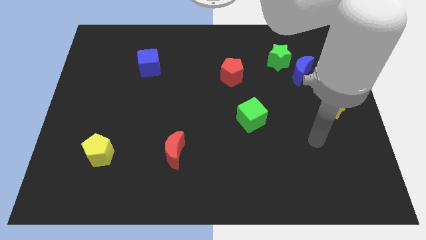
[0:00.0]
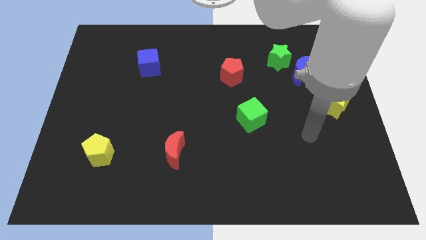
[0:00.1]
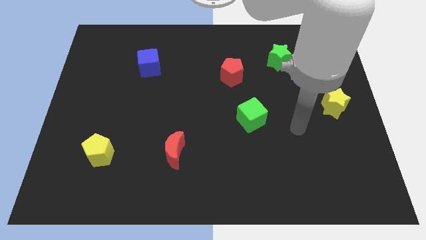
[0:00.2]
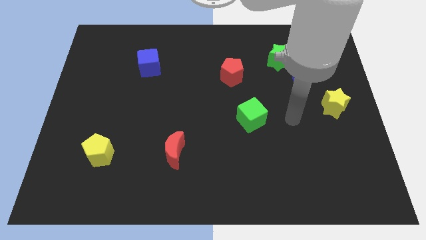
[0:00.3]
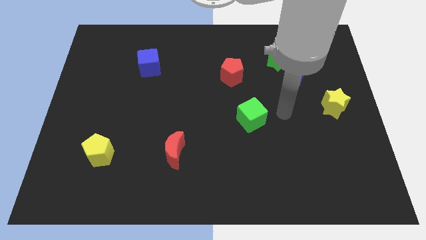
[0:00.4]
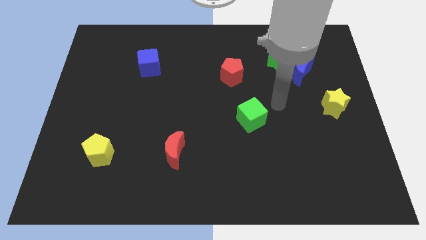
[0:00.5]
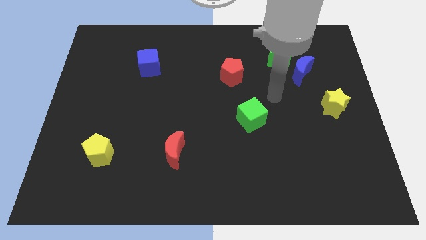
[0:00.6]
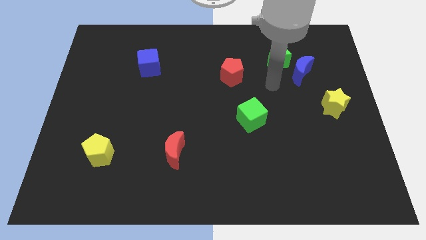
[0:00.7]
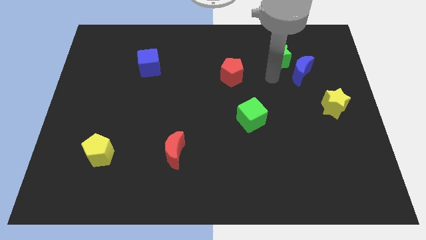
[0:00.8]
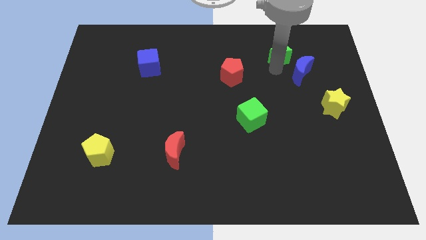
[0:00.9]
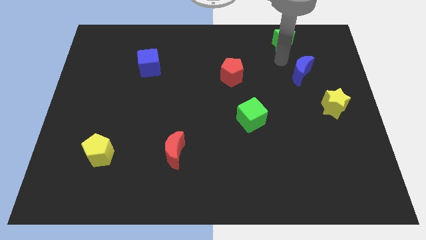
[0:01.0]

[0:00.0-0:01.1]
separate the blue moon from the green star

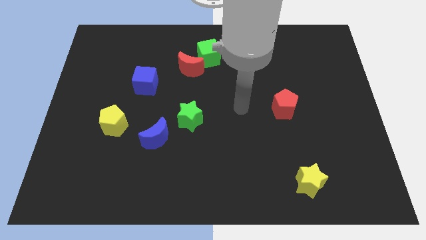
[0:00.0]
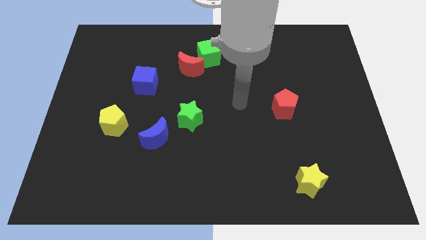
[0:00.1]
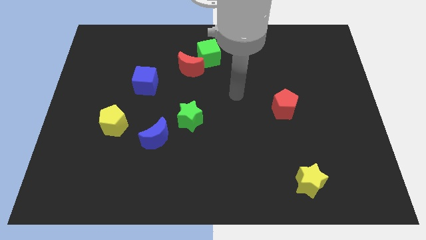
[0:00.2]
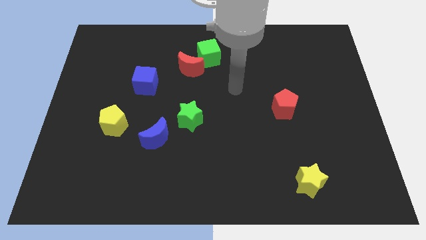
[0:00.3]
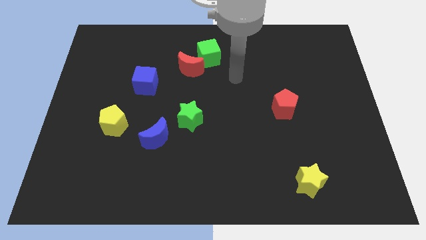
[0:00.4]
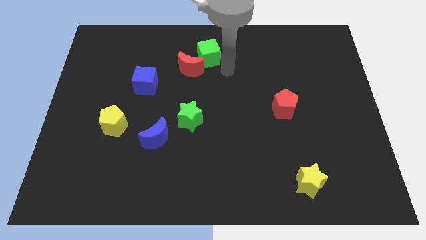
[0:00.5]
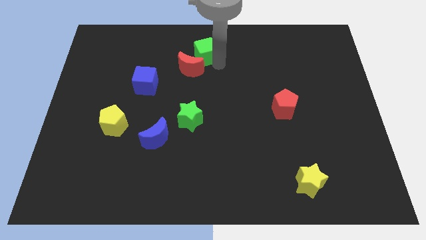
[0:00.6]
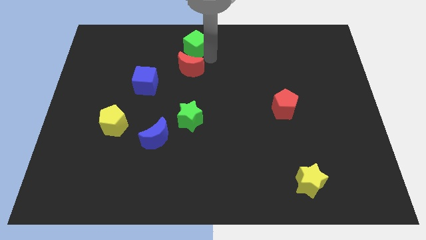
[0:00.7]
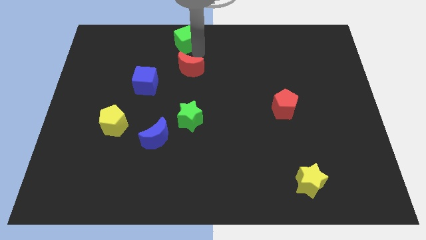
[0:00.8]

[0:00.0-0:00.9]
move the red moon away from the green cube

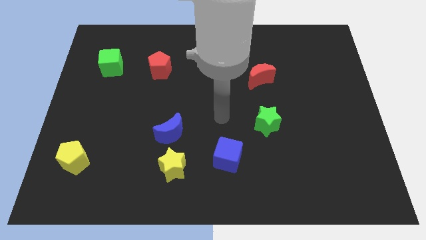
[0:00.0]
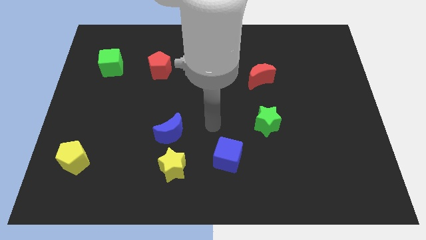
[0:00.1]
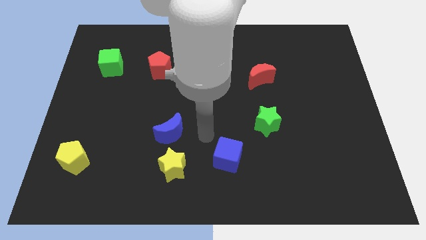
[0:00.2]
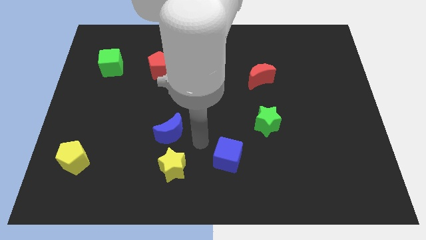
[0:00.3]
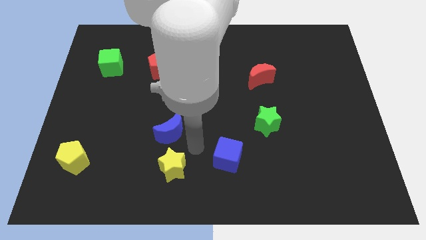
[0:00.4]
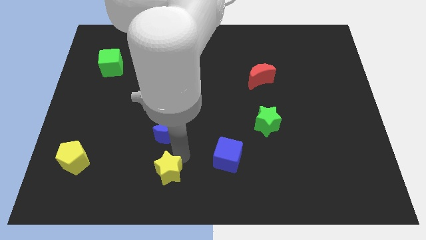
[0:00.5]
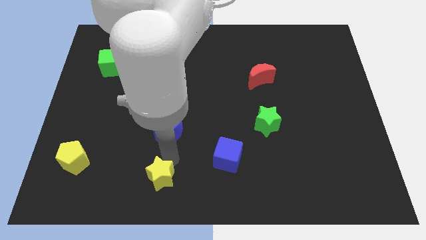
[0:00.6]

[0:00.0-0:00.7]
separate the blue moon from the yellow star

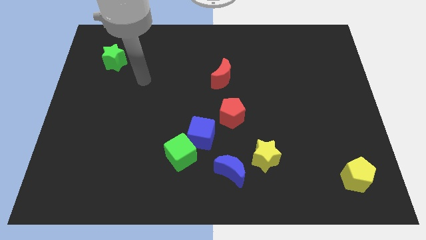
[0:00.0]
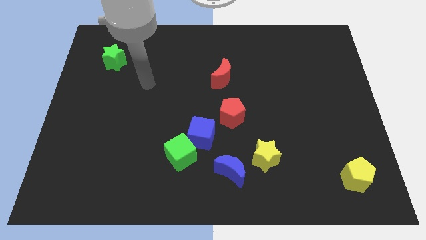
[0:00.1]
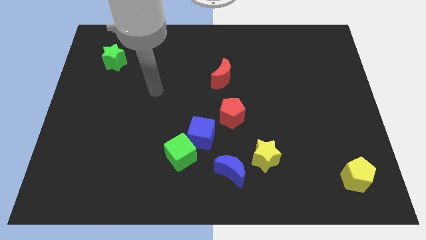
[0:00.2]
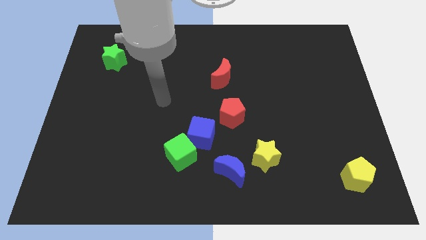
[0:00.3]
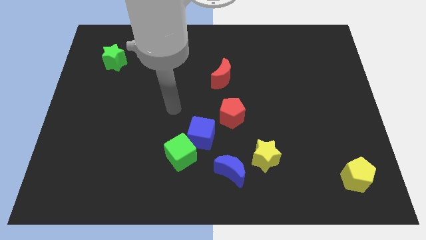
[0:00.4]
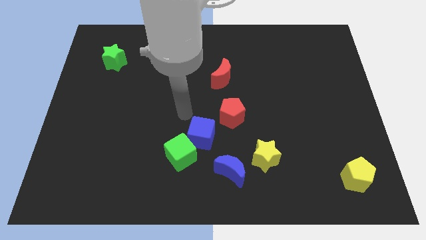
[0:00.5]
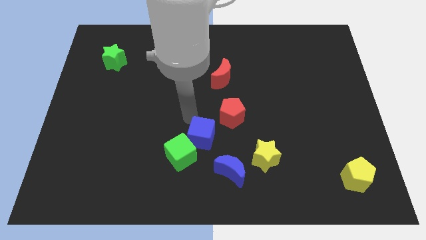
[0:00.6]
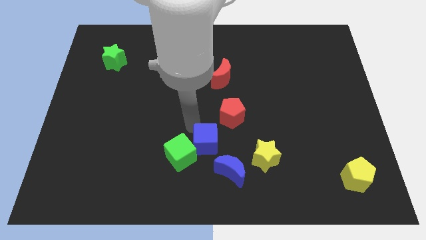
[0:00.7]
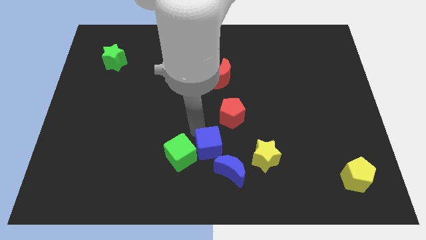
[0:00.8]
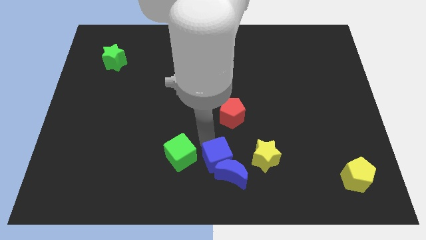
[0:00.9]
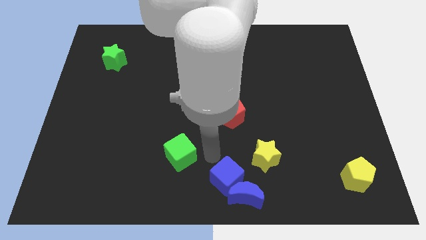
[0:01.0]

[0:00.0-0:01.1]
separate the green cube from the blue cube

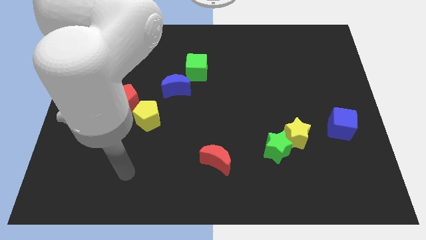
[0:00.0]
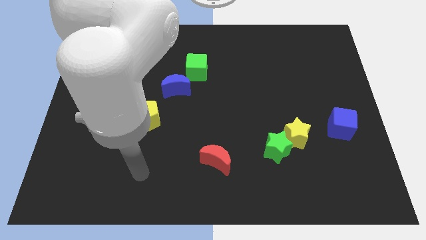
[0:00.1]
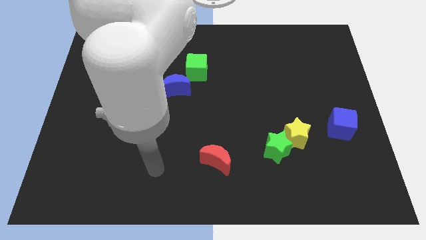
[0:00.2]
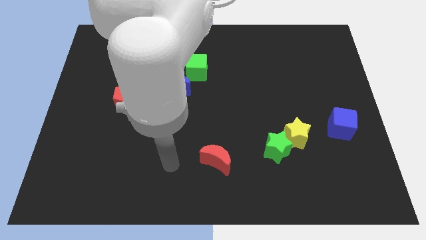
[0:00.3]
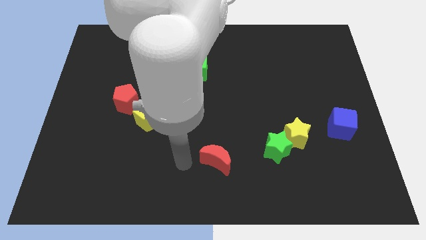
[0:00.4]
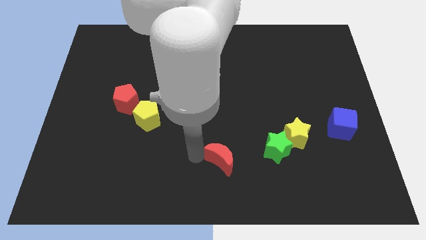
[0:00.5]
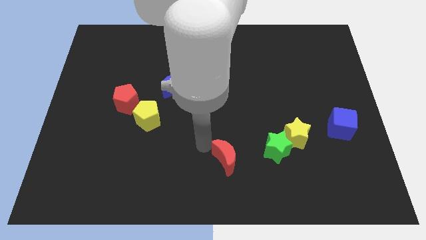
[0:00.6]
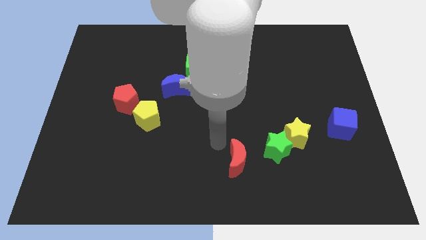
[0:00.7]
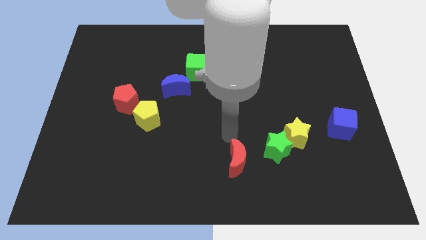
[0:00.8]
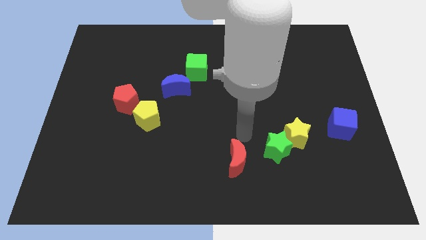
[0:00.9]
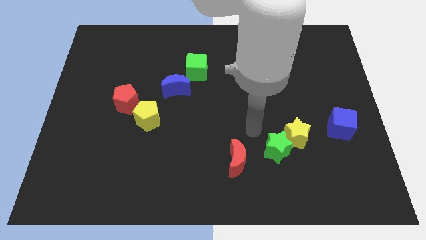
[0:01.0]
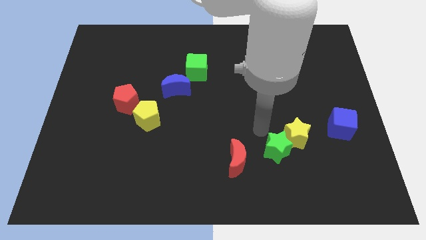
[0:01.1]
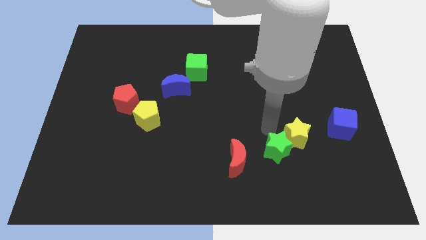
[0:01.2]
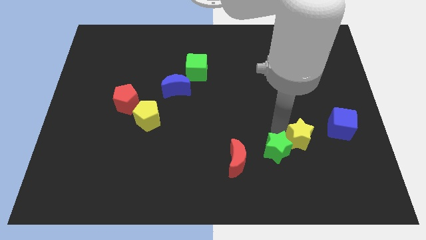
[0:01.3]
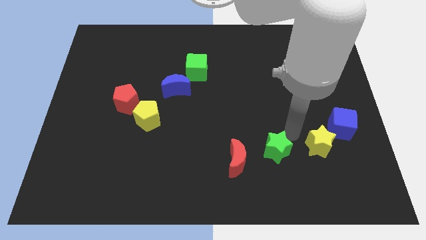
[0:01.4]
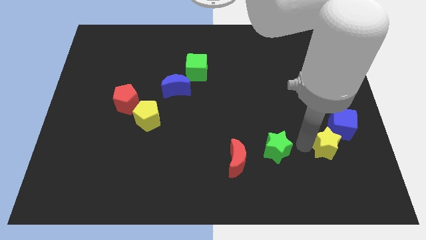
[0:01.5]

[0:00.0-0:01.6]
move the green star away from the yellow star

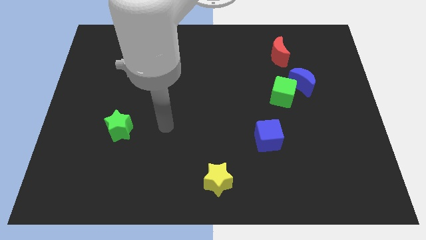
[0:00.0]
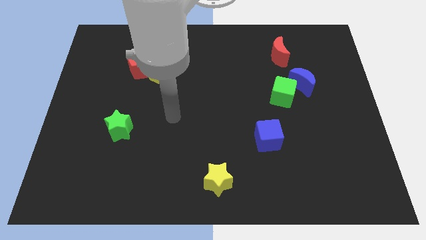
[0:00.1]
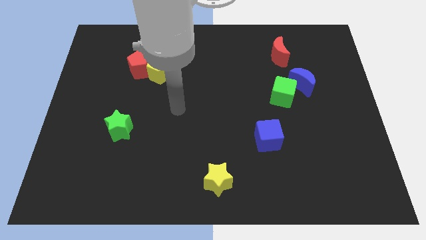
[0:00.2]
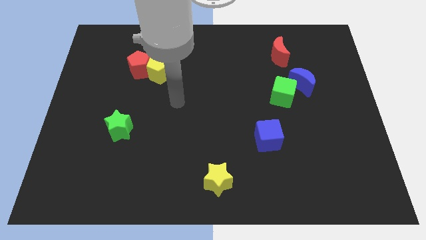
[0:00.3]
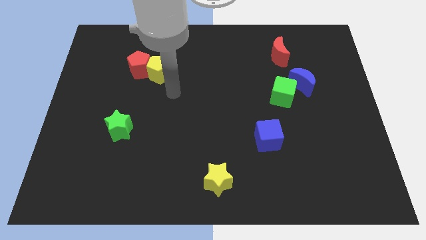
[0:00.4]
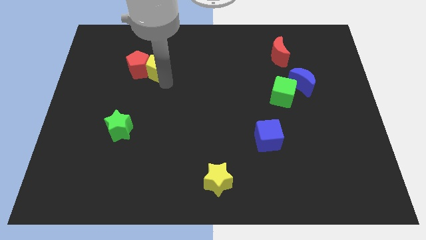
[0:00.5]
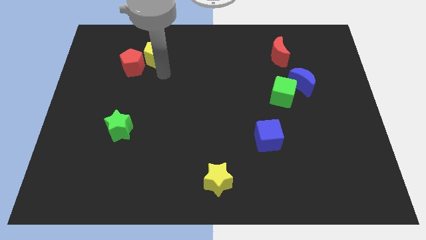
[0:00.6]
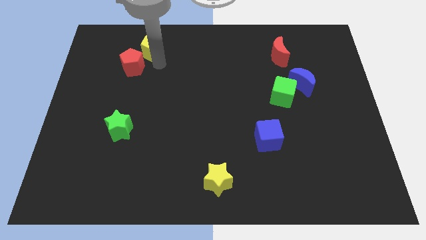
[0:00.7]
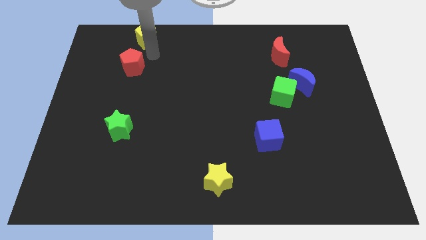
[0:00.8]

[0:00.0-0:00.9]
move the red pentagon away from the yellow pentagon

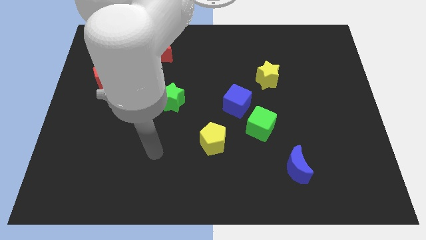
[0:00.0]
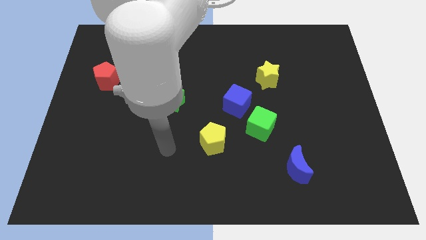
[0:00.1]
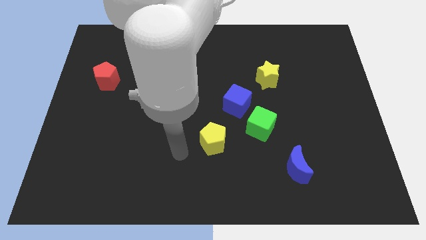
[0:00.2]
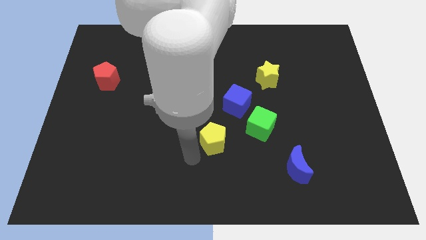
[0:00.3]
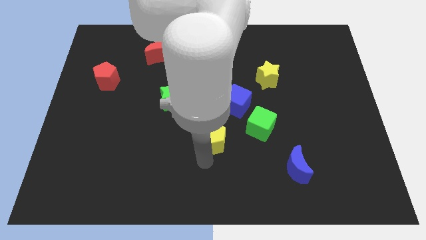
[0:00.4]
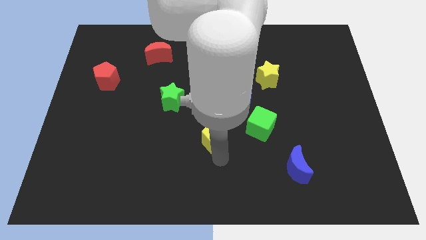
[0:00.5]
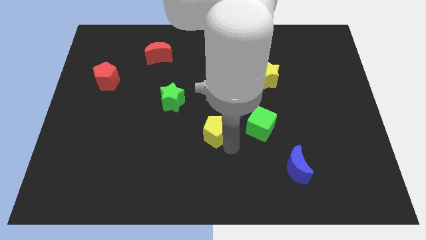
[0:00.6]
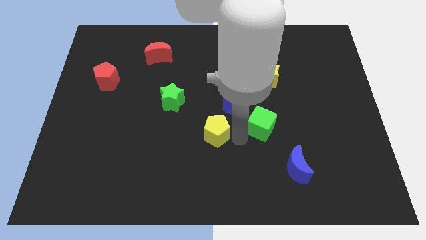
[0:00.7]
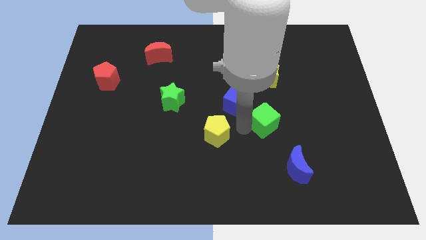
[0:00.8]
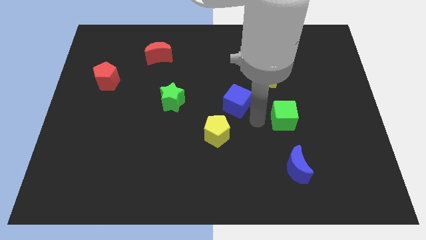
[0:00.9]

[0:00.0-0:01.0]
separate the blue cube from the green cube

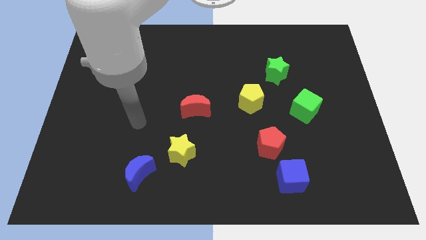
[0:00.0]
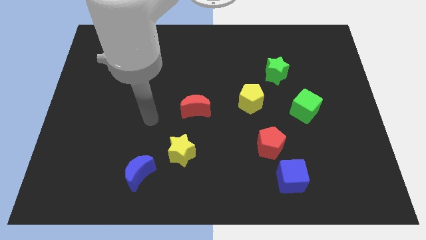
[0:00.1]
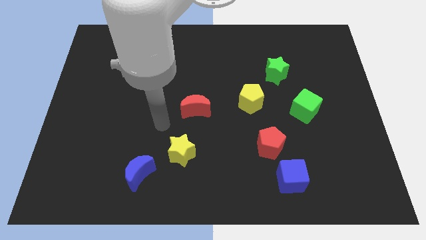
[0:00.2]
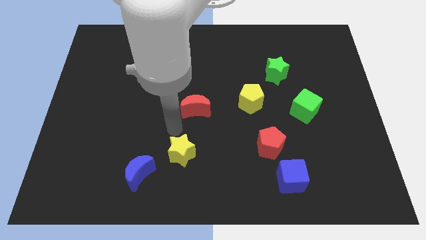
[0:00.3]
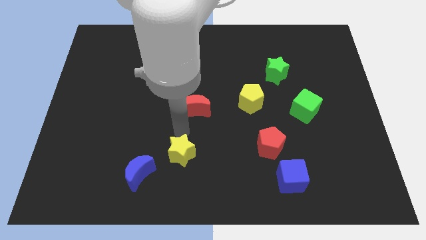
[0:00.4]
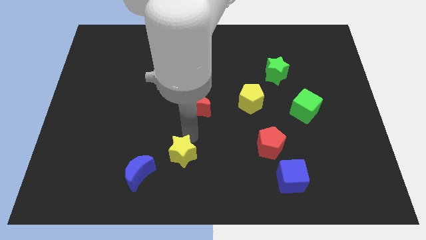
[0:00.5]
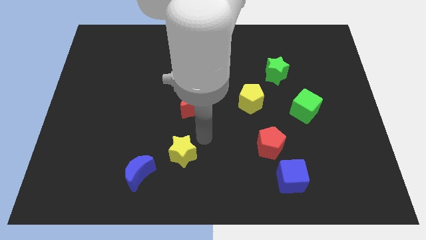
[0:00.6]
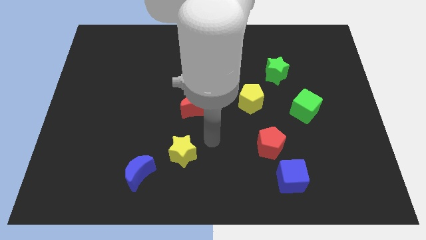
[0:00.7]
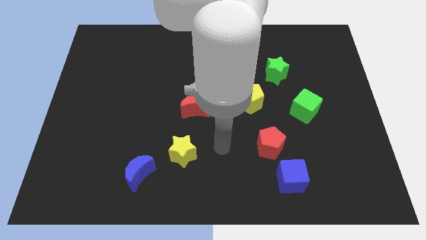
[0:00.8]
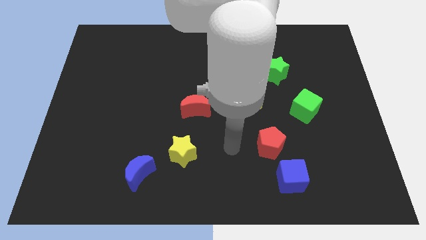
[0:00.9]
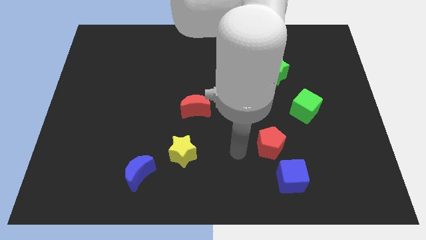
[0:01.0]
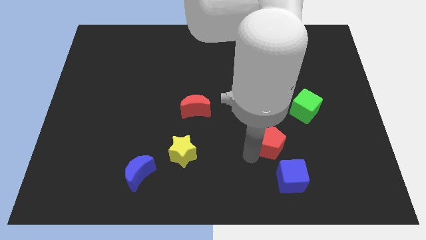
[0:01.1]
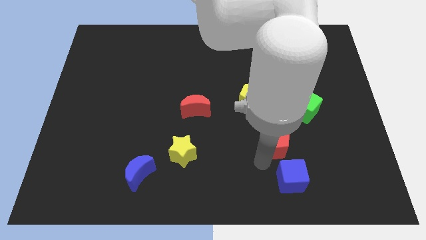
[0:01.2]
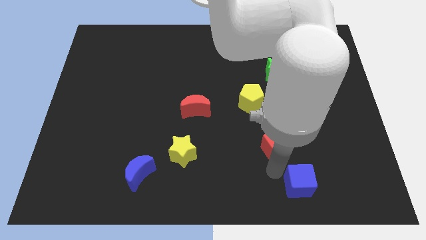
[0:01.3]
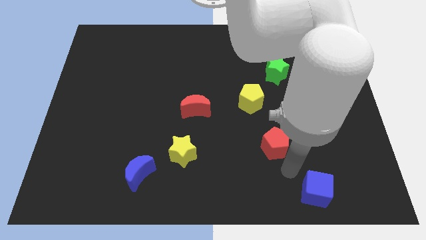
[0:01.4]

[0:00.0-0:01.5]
move the red pentagon away from the blue cube

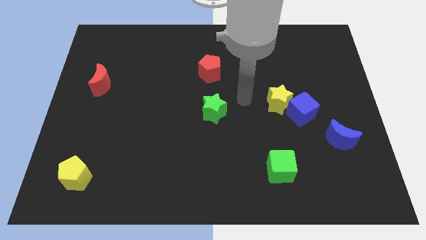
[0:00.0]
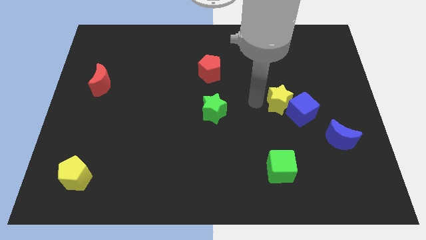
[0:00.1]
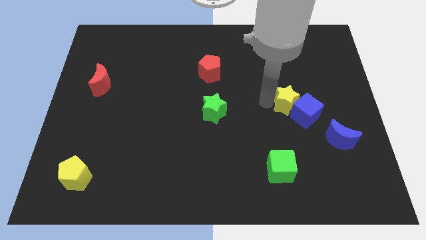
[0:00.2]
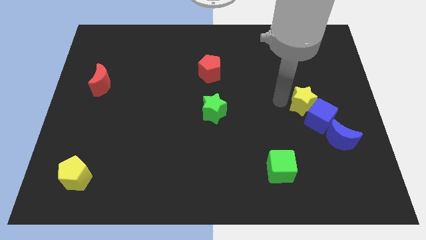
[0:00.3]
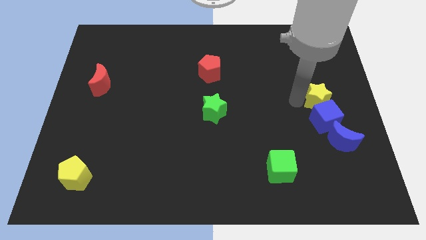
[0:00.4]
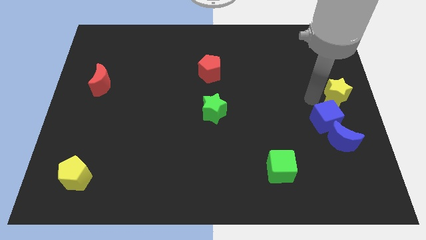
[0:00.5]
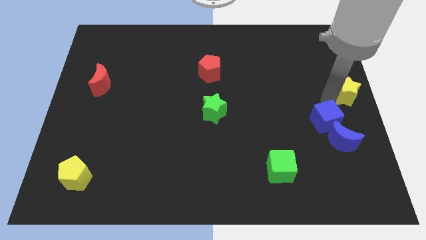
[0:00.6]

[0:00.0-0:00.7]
separate the blue cube from the yellow star
